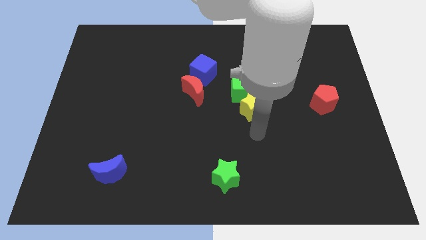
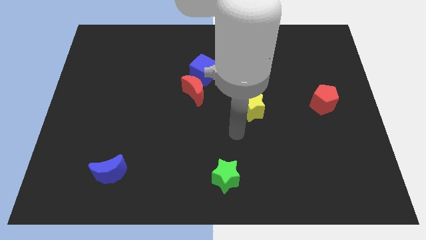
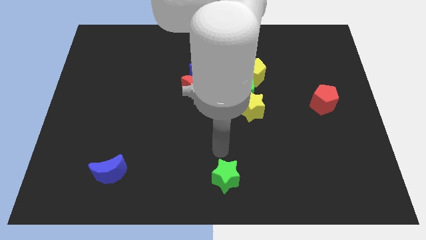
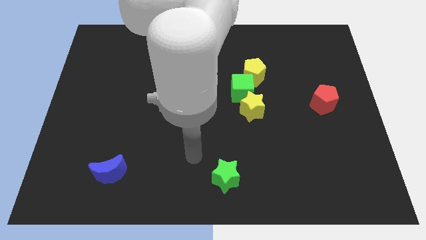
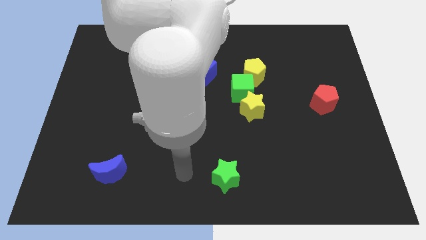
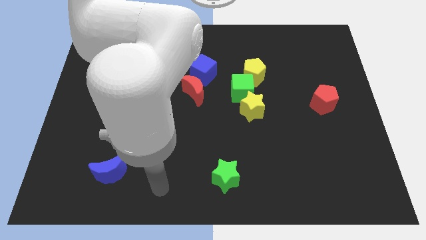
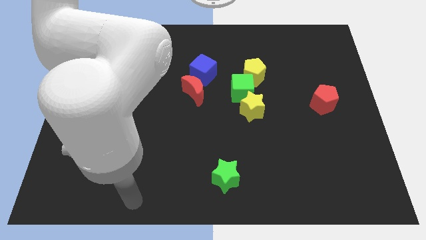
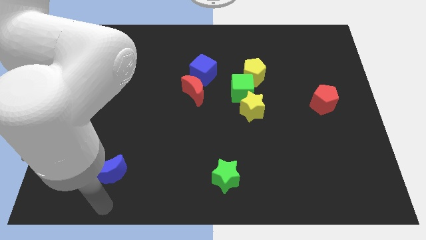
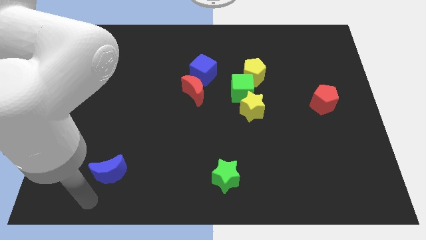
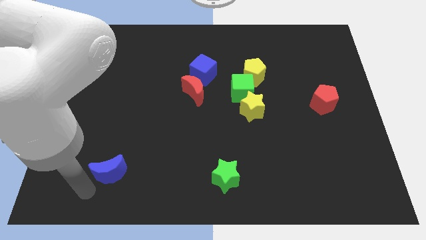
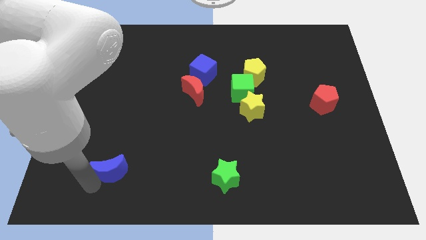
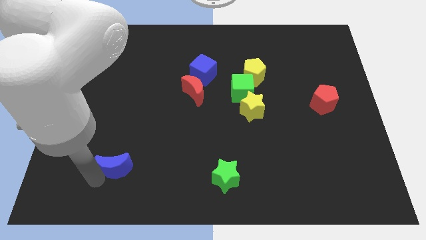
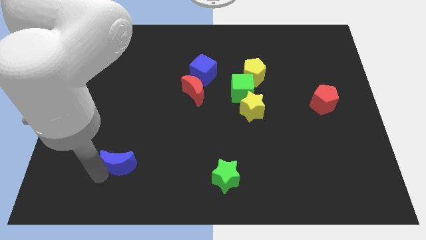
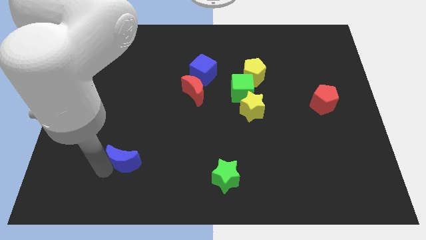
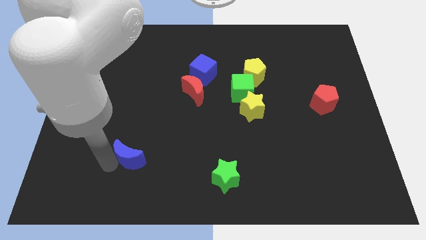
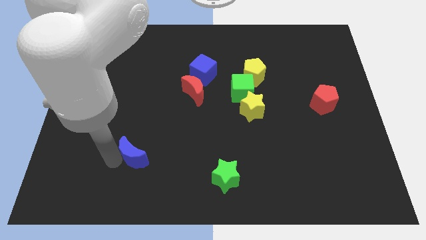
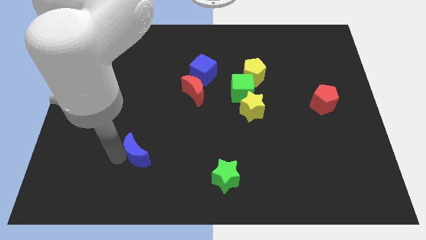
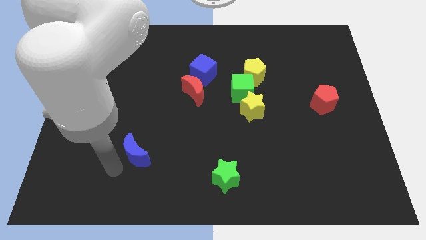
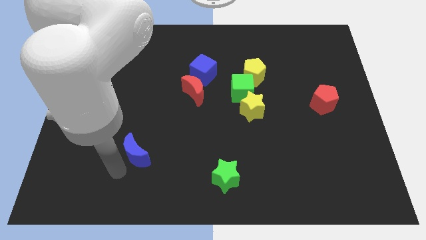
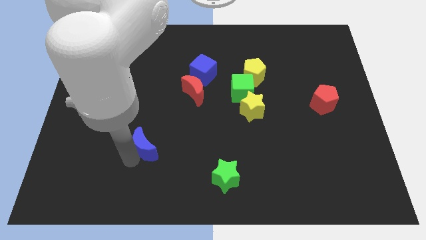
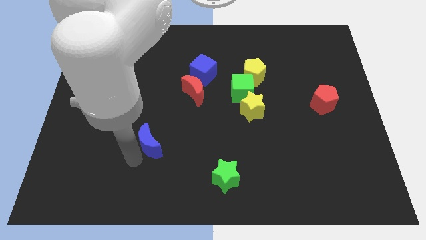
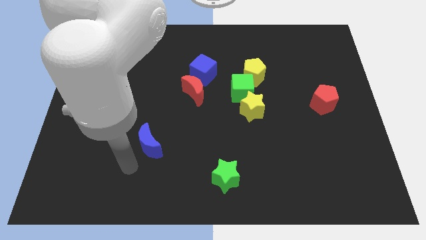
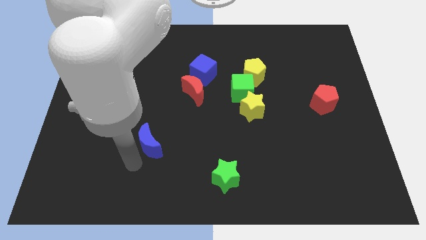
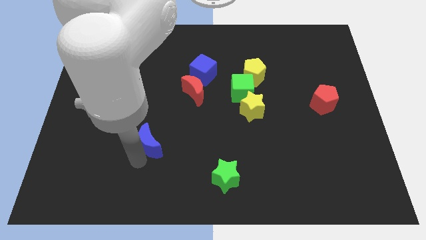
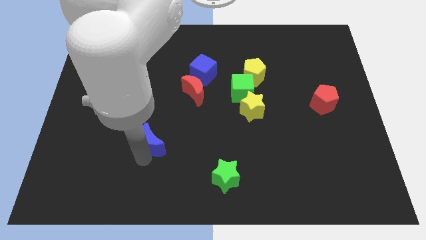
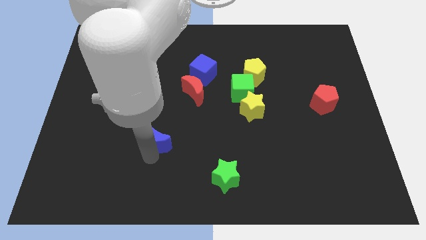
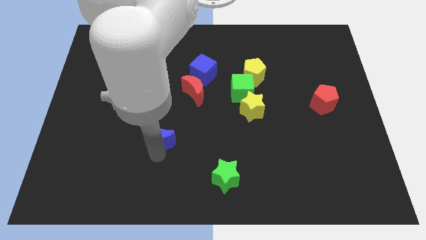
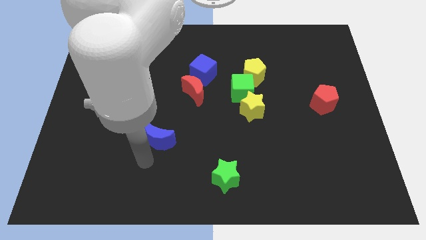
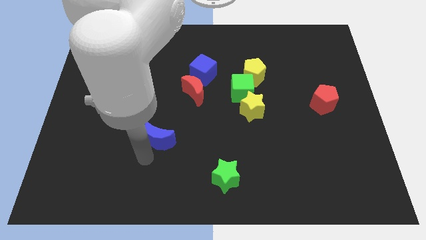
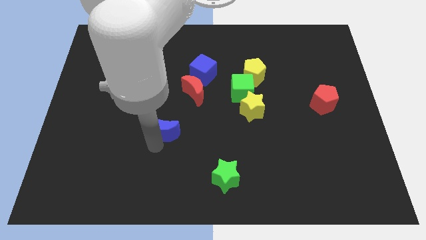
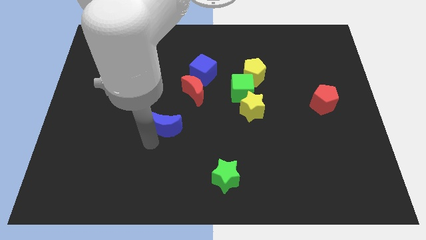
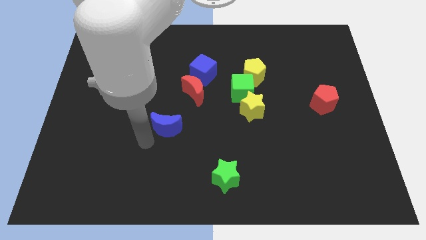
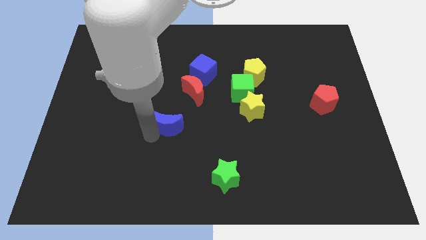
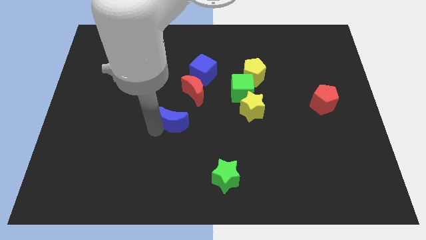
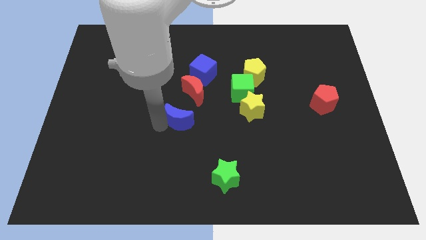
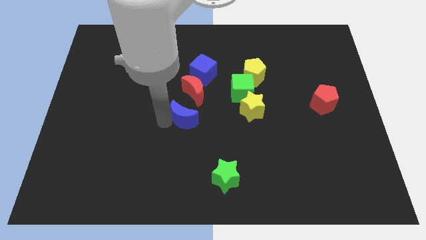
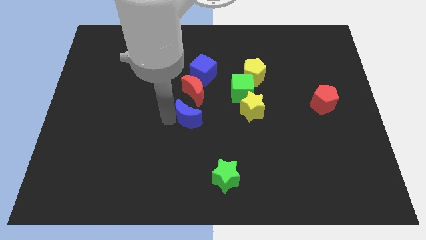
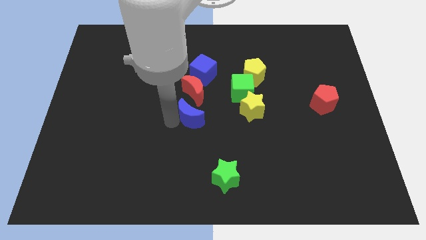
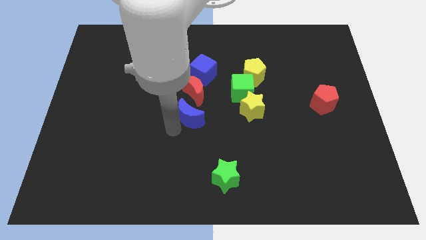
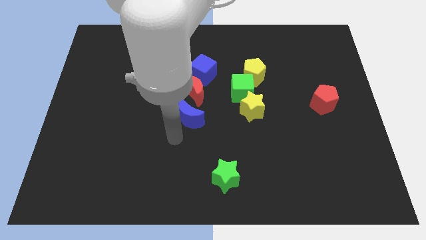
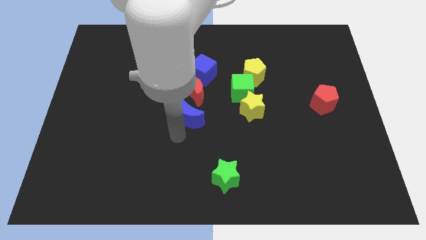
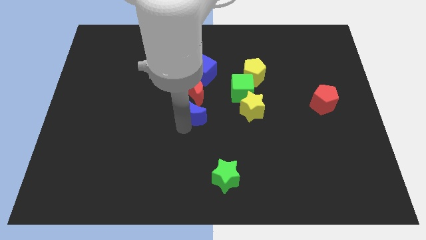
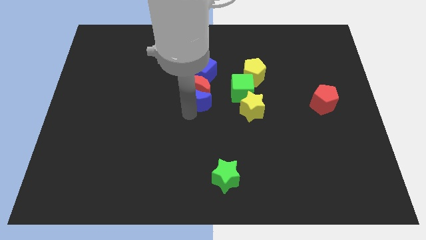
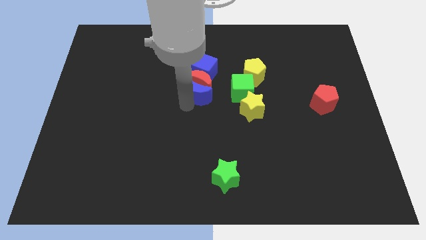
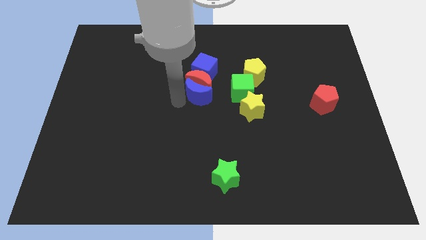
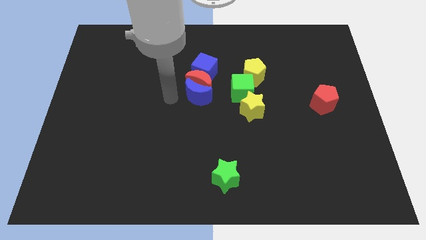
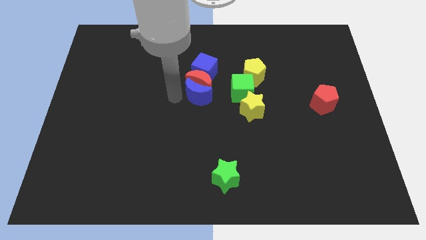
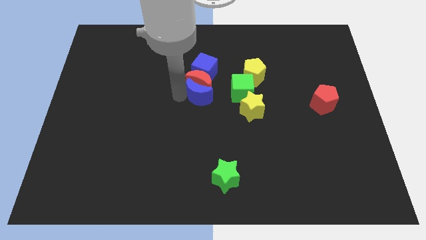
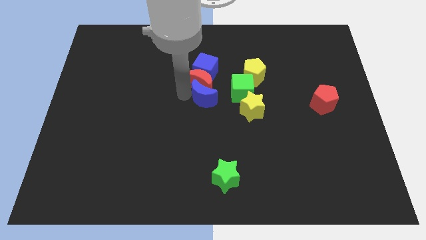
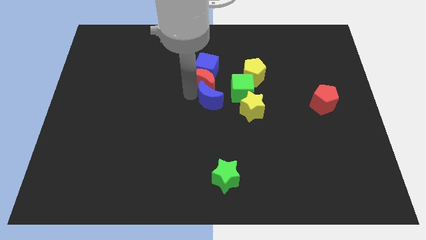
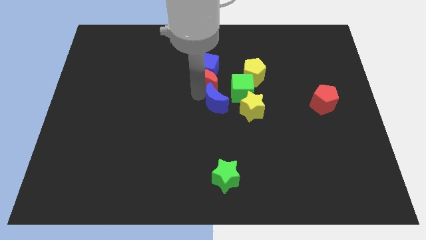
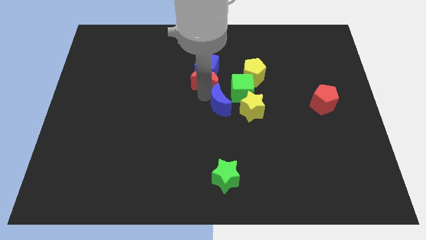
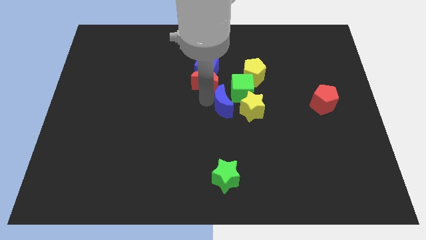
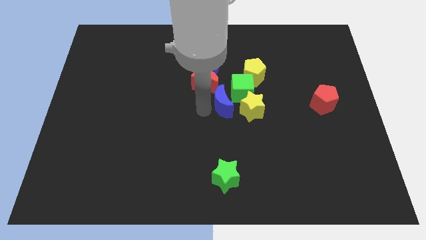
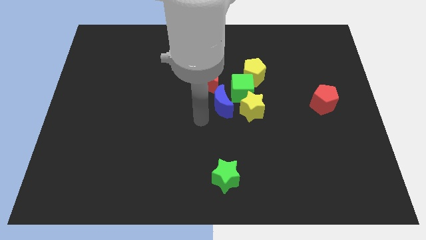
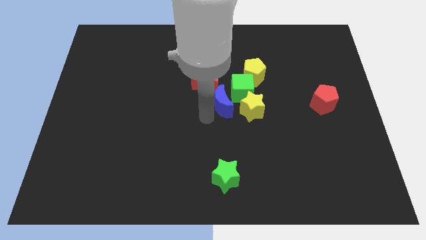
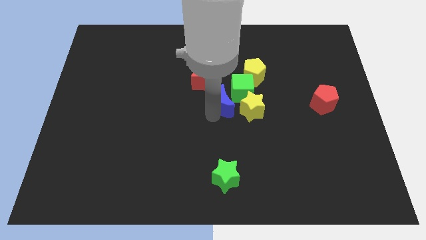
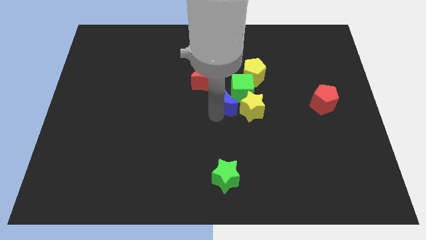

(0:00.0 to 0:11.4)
move the blue moon to the green cube

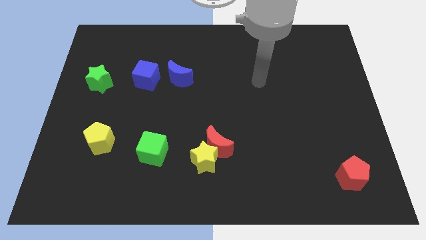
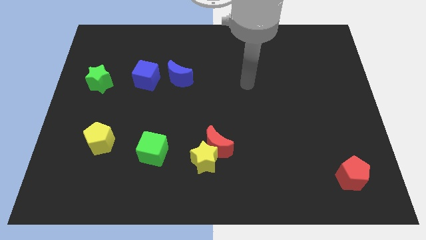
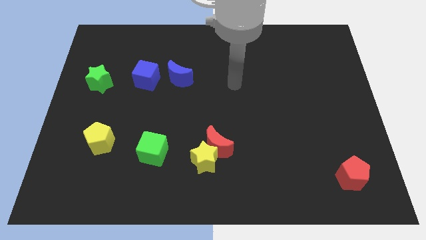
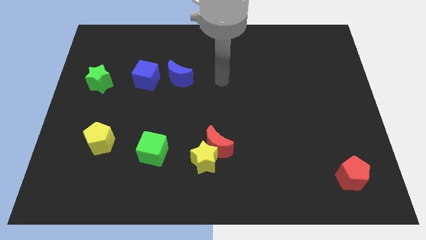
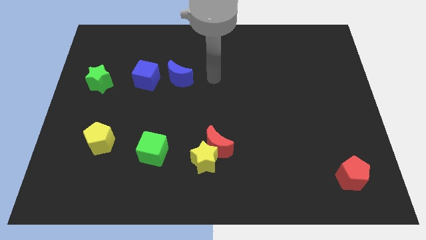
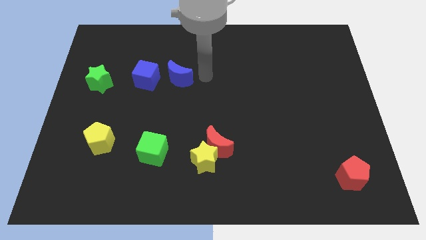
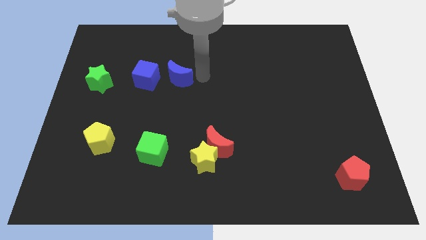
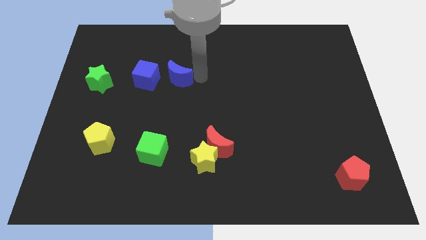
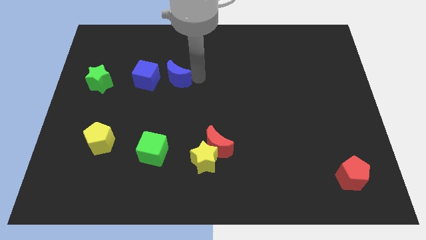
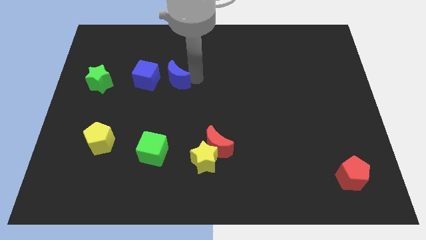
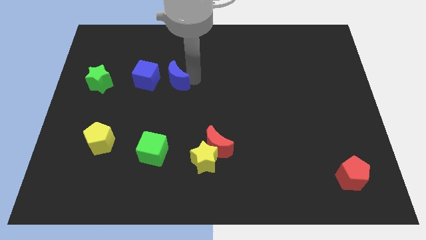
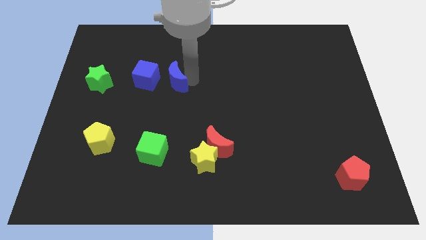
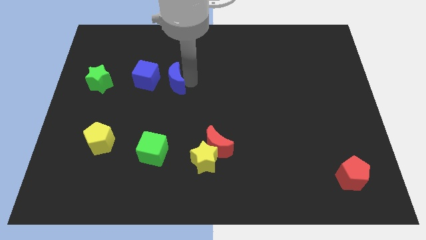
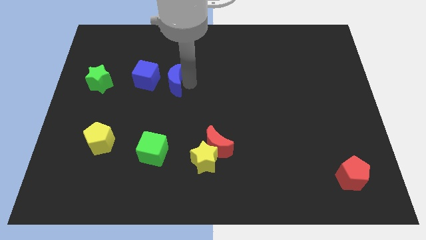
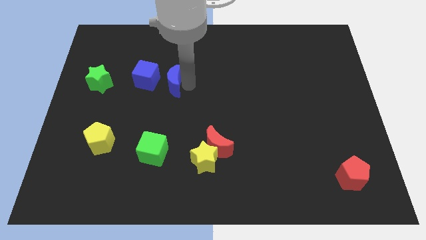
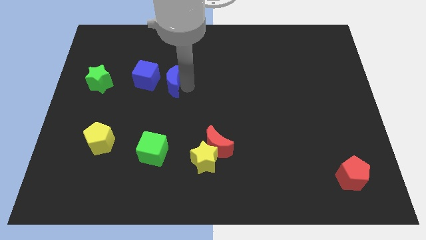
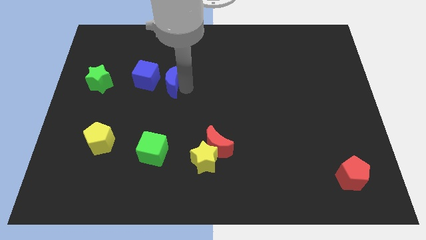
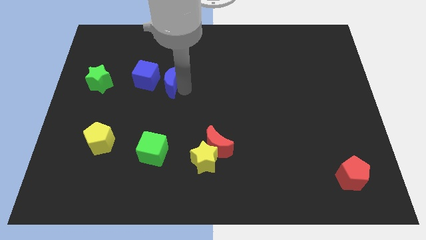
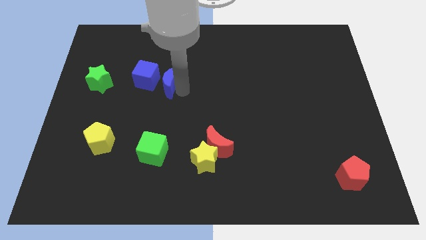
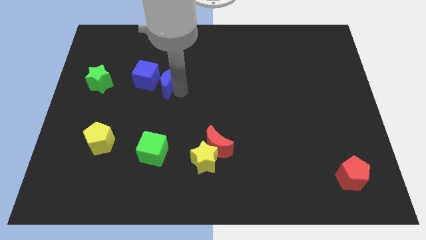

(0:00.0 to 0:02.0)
push the blue moon close to the blue cube
